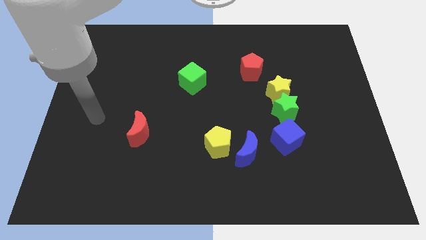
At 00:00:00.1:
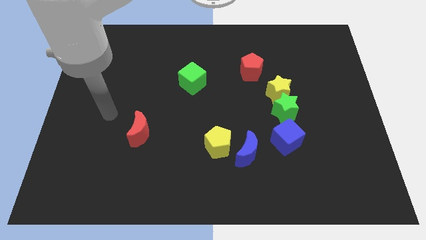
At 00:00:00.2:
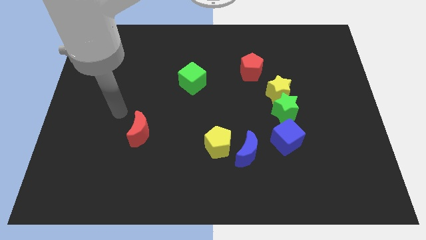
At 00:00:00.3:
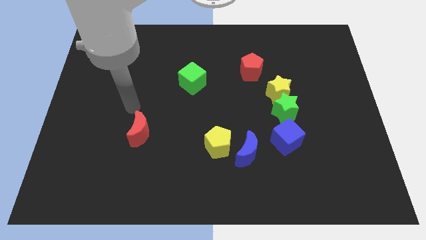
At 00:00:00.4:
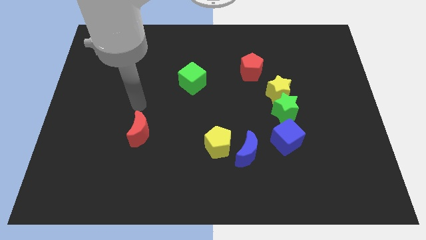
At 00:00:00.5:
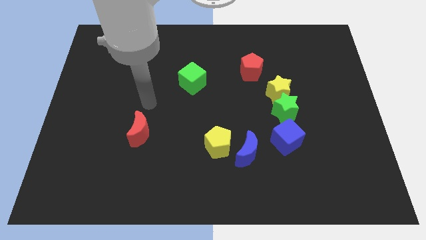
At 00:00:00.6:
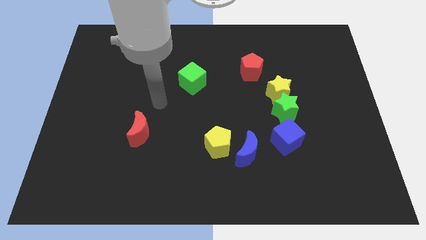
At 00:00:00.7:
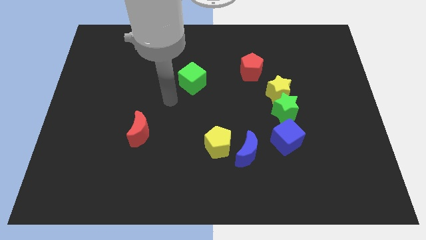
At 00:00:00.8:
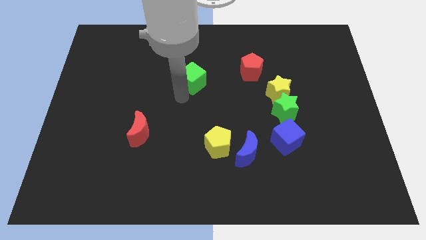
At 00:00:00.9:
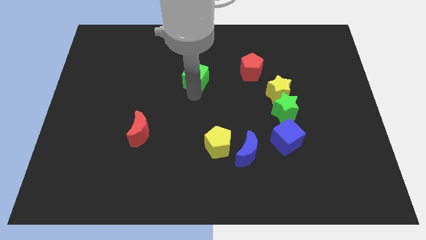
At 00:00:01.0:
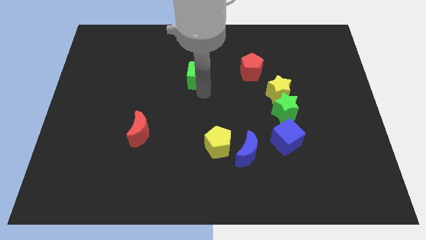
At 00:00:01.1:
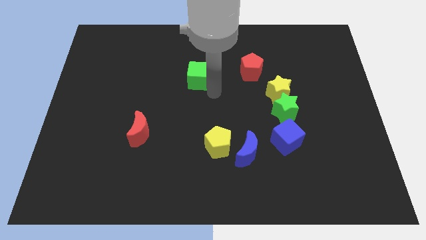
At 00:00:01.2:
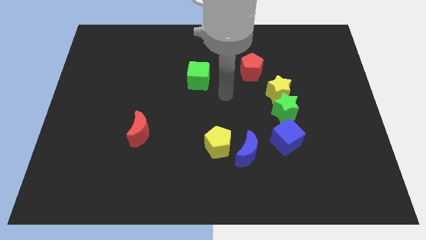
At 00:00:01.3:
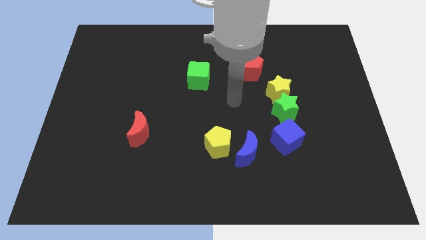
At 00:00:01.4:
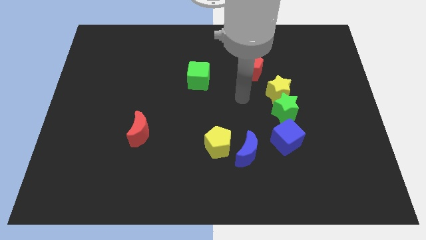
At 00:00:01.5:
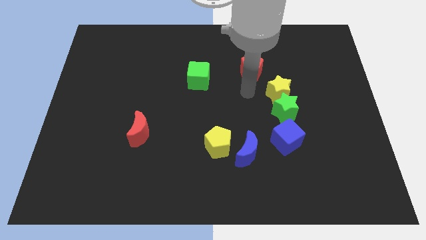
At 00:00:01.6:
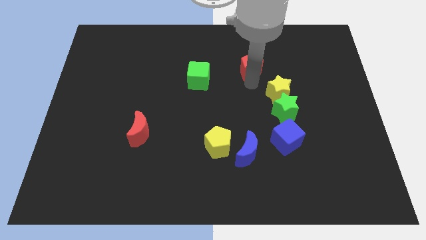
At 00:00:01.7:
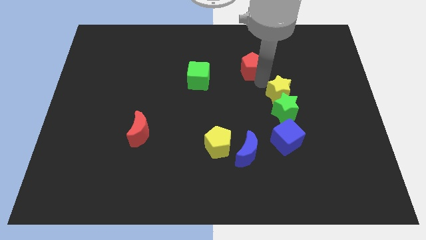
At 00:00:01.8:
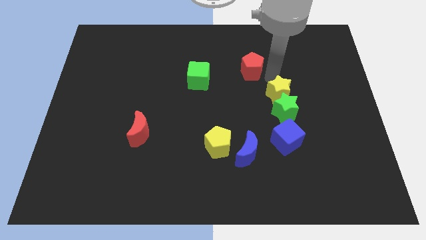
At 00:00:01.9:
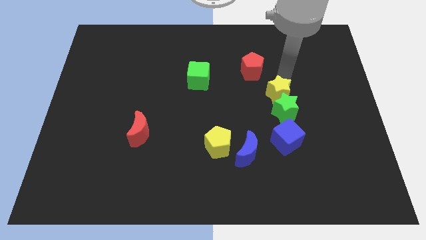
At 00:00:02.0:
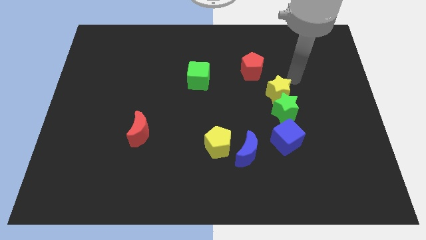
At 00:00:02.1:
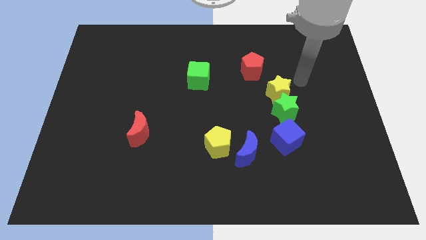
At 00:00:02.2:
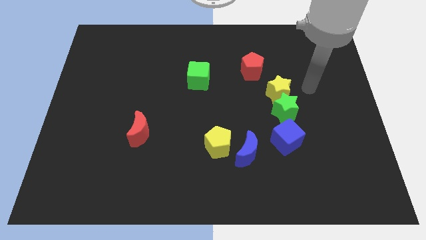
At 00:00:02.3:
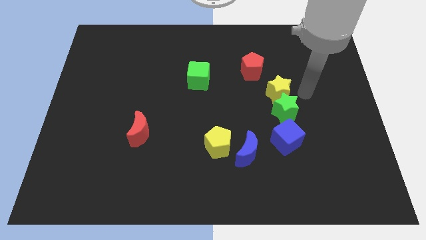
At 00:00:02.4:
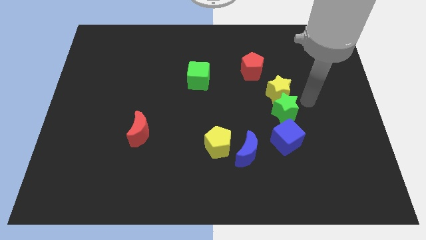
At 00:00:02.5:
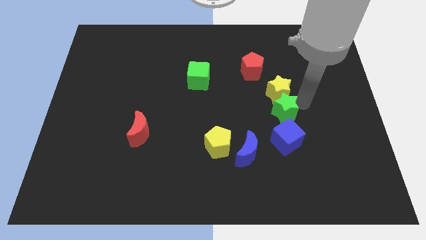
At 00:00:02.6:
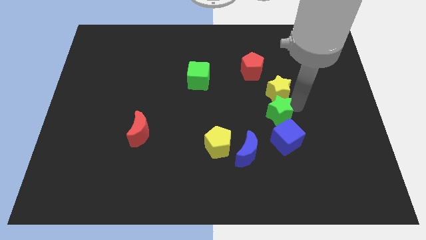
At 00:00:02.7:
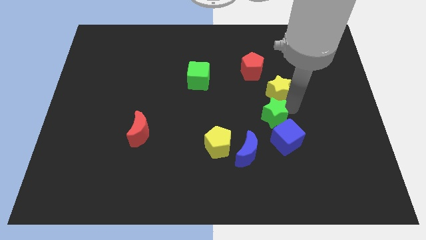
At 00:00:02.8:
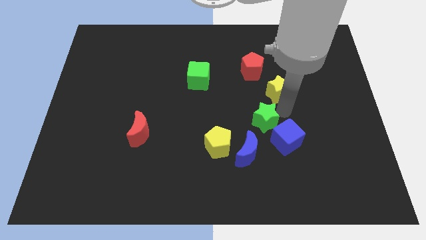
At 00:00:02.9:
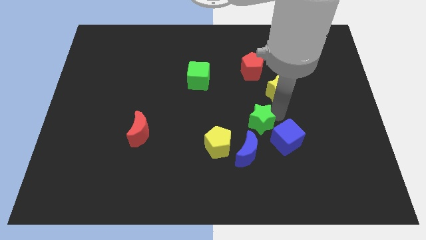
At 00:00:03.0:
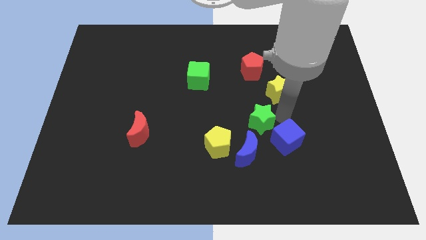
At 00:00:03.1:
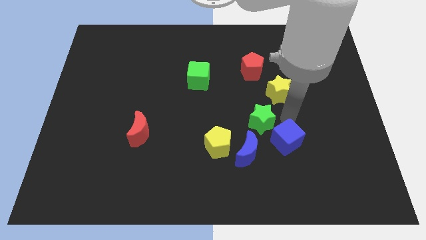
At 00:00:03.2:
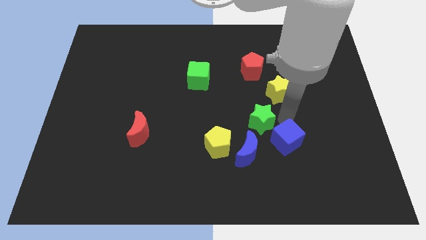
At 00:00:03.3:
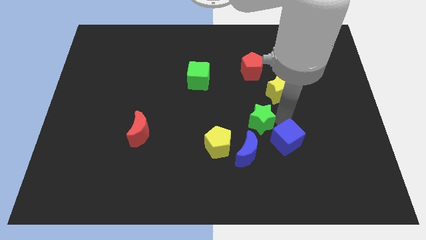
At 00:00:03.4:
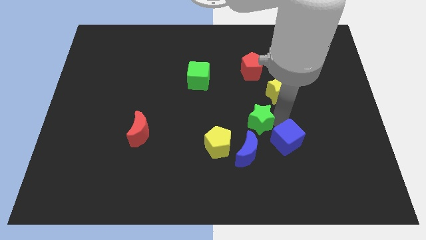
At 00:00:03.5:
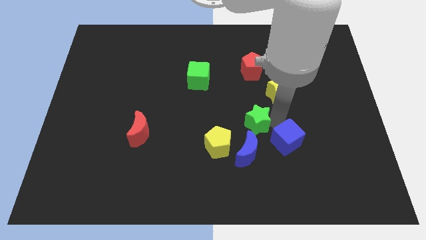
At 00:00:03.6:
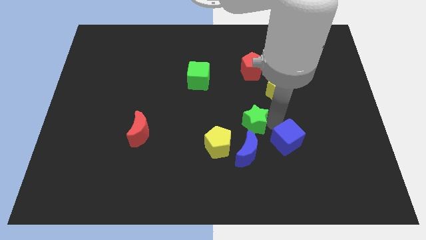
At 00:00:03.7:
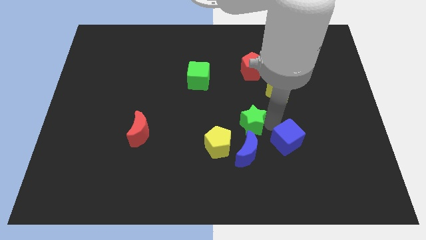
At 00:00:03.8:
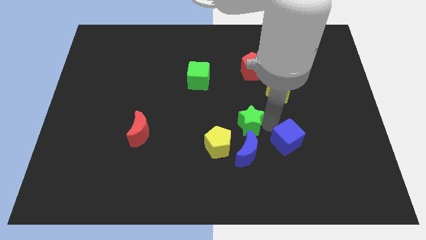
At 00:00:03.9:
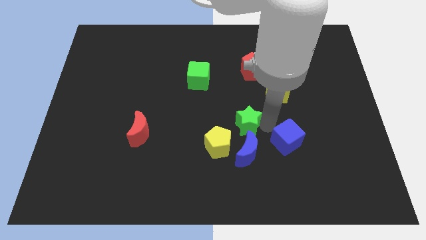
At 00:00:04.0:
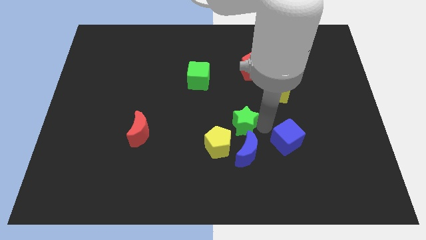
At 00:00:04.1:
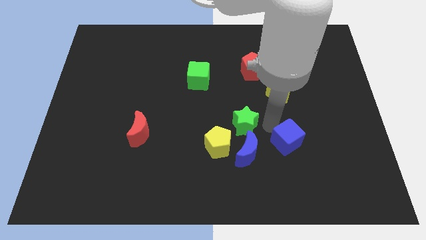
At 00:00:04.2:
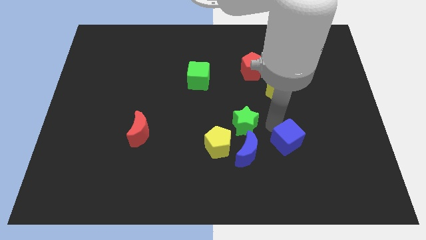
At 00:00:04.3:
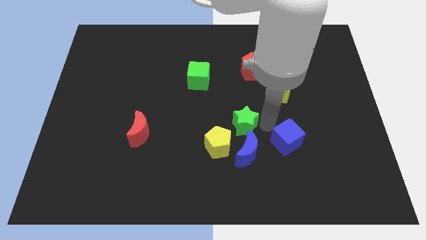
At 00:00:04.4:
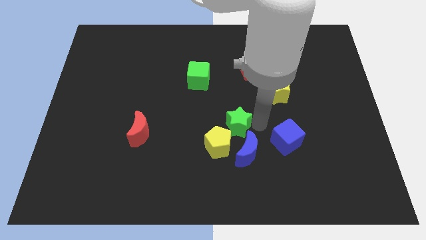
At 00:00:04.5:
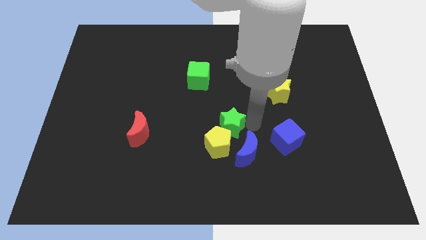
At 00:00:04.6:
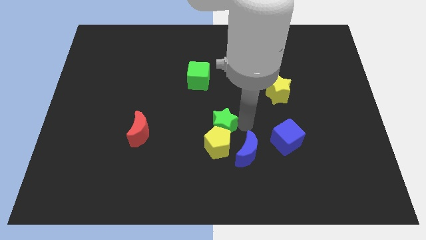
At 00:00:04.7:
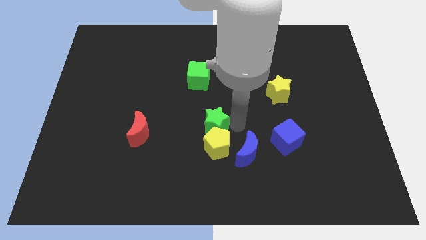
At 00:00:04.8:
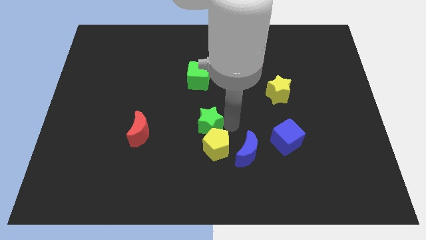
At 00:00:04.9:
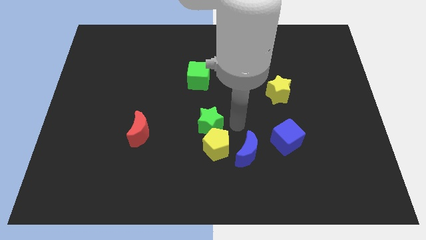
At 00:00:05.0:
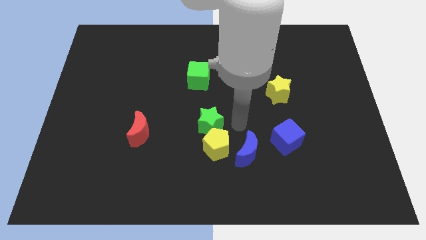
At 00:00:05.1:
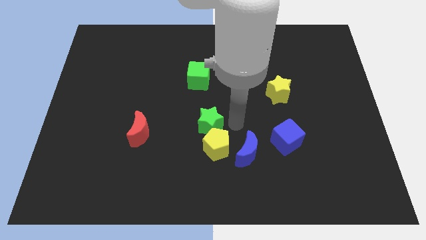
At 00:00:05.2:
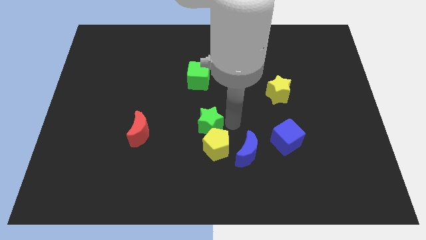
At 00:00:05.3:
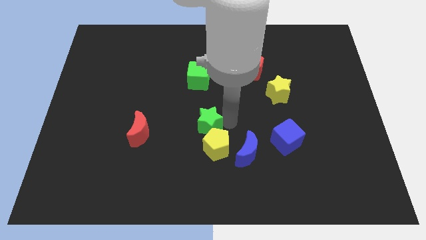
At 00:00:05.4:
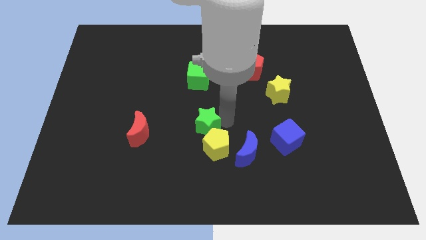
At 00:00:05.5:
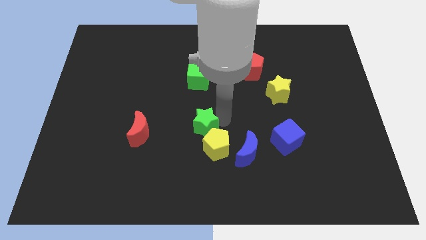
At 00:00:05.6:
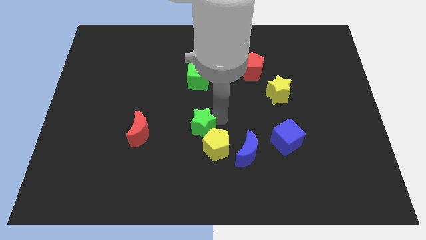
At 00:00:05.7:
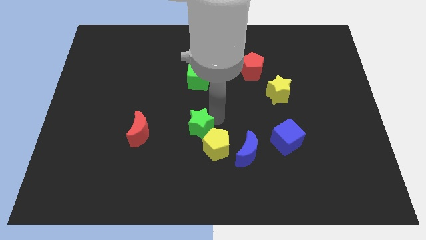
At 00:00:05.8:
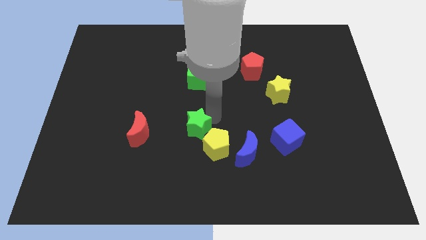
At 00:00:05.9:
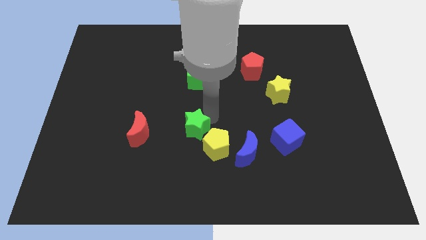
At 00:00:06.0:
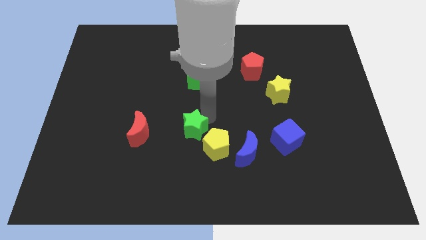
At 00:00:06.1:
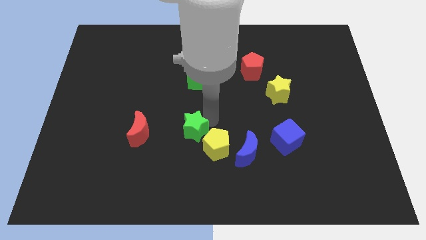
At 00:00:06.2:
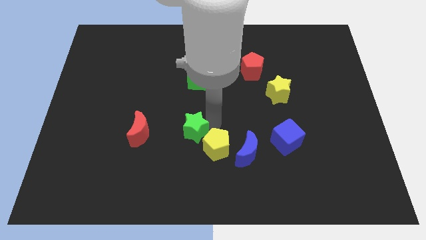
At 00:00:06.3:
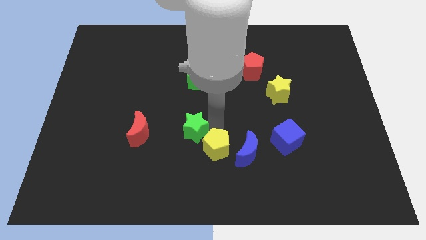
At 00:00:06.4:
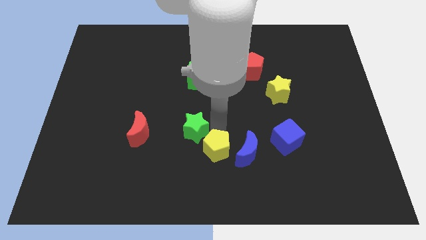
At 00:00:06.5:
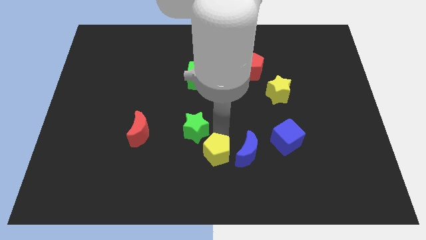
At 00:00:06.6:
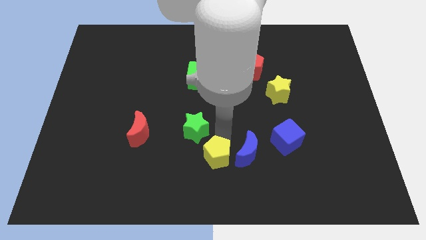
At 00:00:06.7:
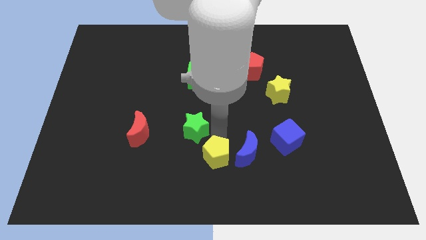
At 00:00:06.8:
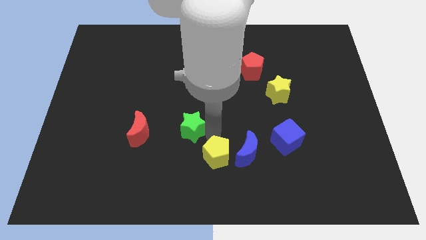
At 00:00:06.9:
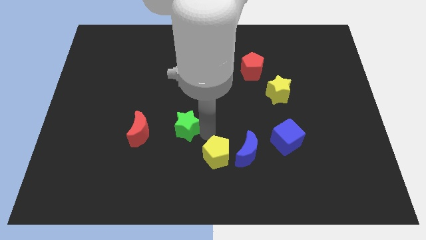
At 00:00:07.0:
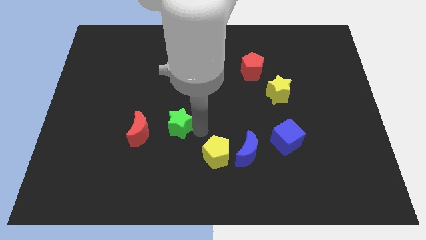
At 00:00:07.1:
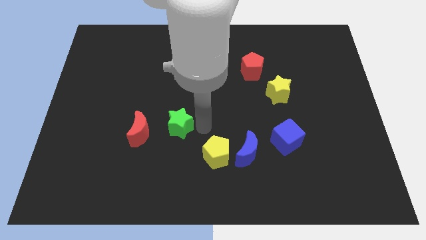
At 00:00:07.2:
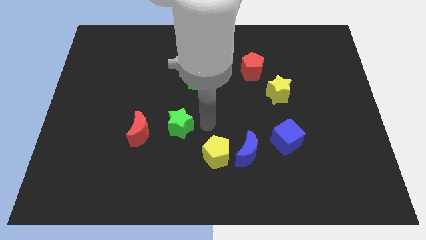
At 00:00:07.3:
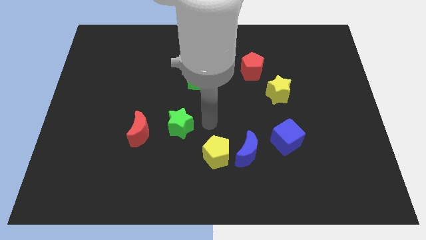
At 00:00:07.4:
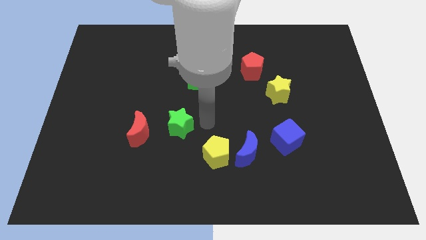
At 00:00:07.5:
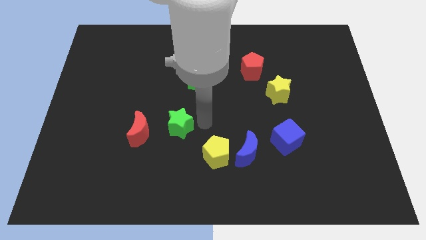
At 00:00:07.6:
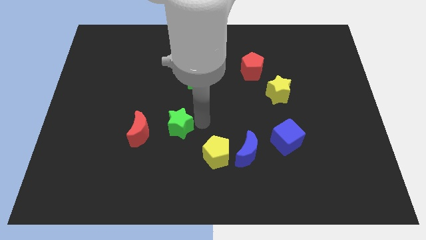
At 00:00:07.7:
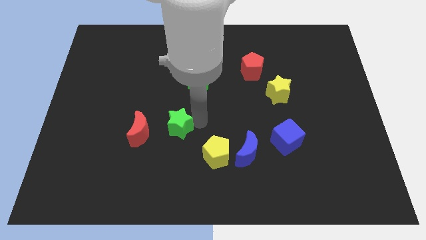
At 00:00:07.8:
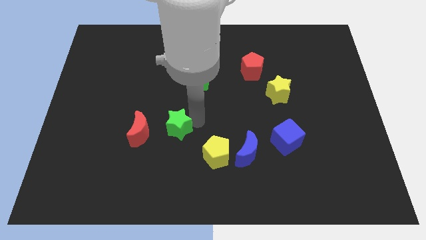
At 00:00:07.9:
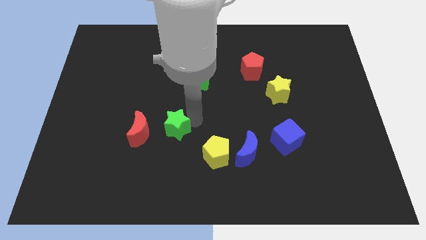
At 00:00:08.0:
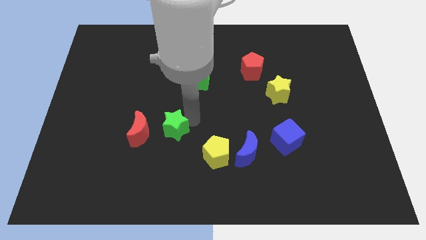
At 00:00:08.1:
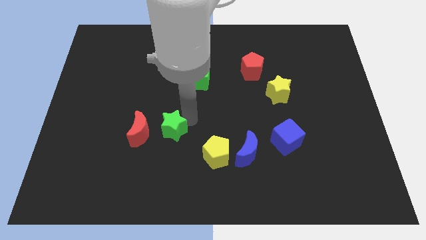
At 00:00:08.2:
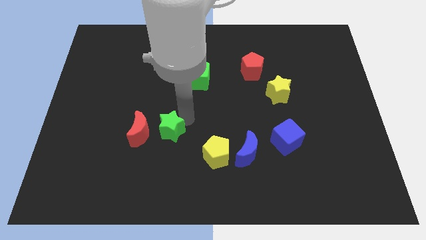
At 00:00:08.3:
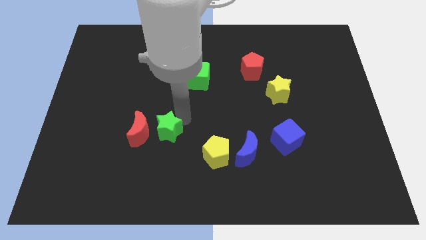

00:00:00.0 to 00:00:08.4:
slide the green star next to the red moon
